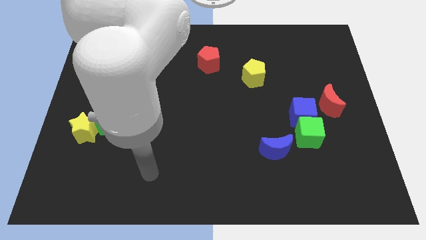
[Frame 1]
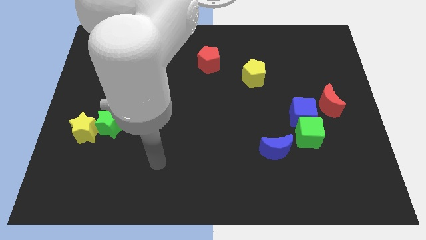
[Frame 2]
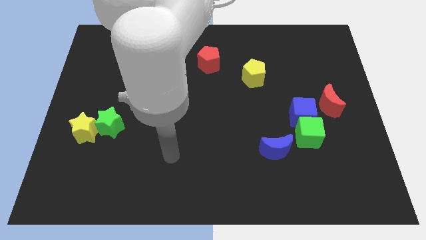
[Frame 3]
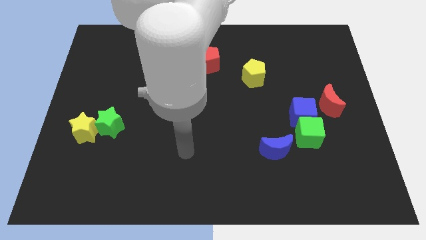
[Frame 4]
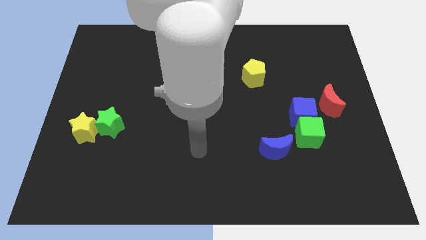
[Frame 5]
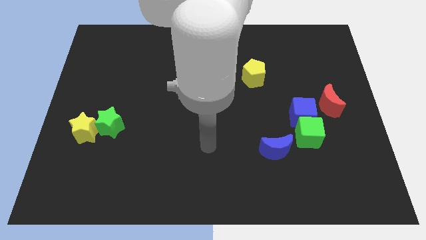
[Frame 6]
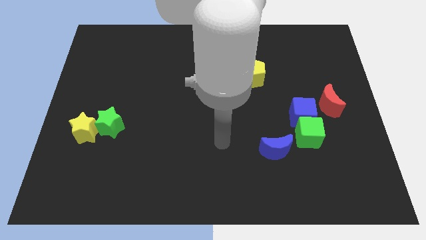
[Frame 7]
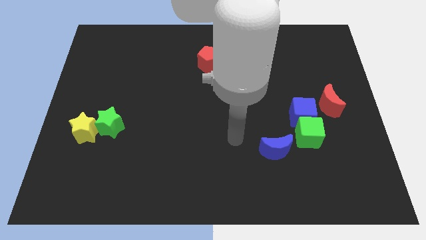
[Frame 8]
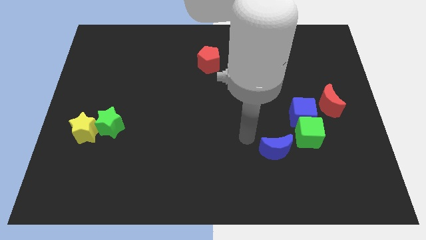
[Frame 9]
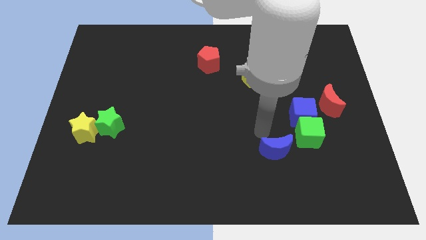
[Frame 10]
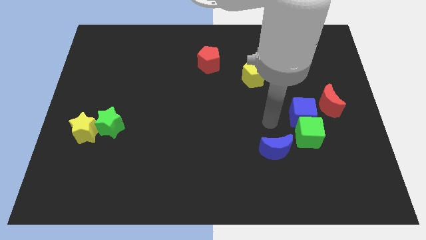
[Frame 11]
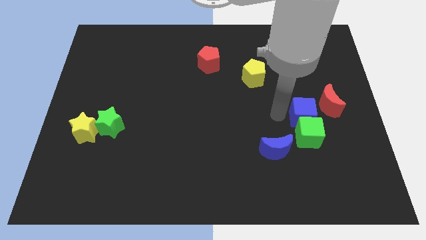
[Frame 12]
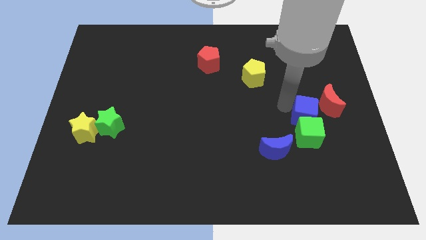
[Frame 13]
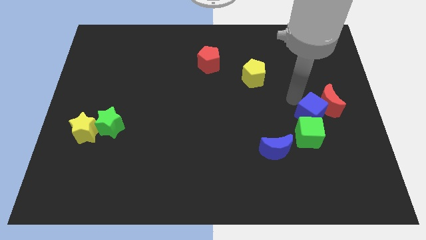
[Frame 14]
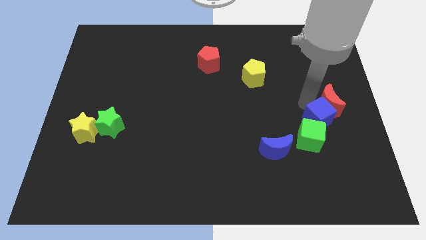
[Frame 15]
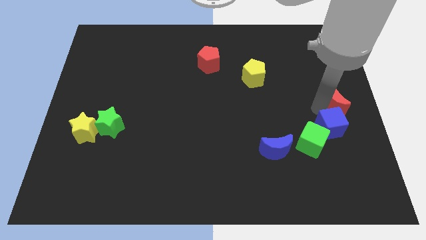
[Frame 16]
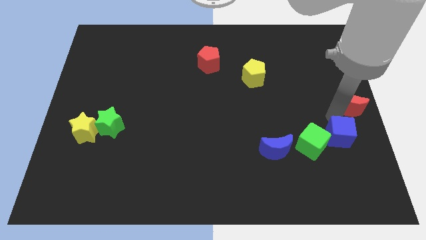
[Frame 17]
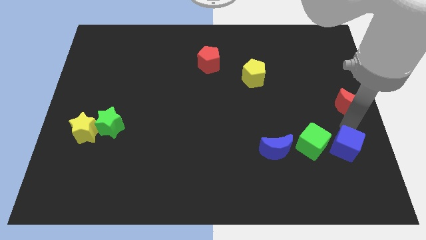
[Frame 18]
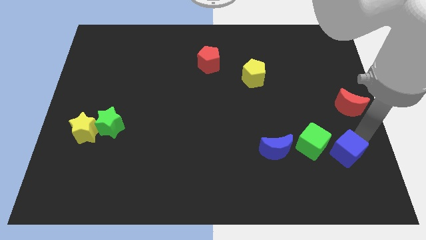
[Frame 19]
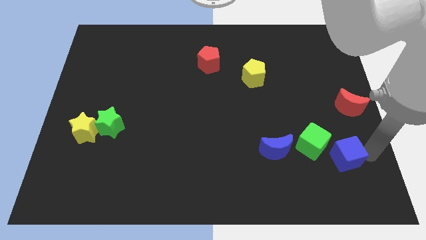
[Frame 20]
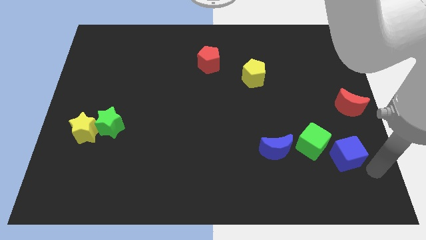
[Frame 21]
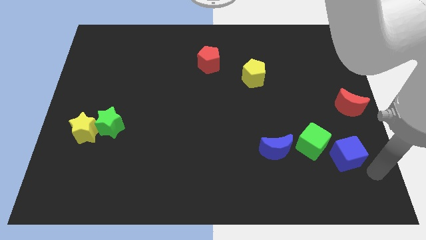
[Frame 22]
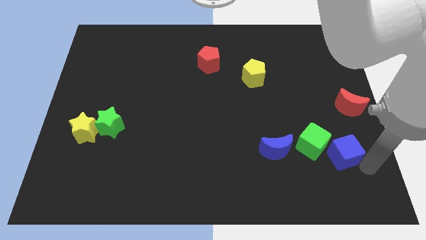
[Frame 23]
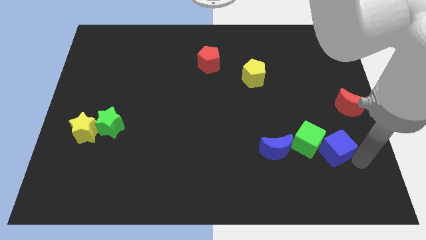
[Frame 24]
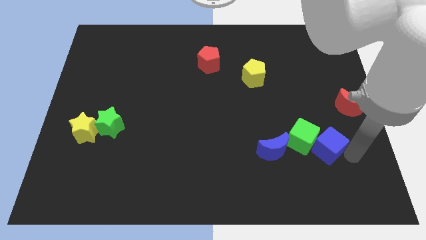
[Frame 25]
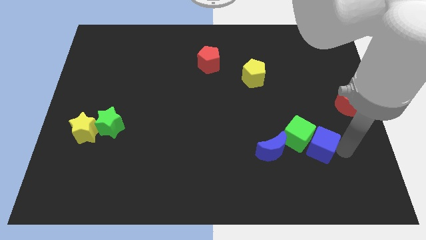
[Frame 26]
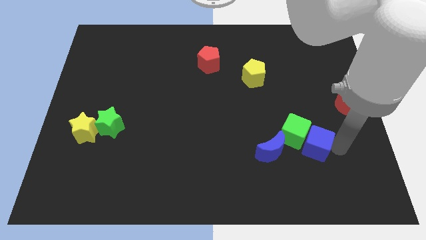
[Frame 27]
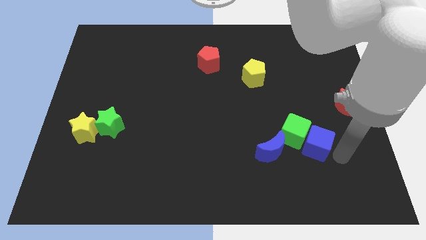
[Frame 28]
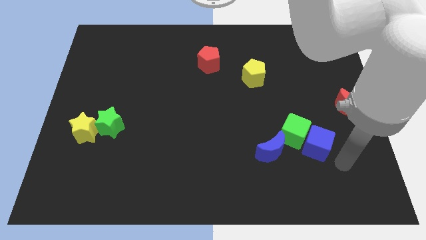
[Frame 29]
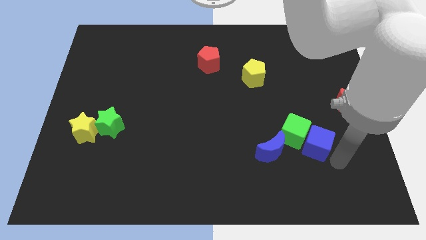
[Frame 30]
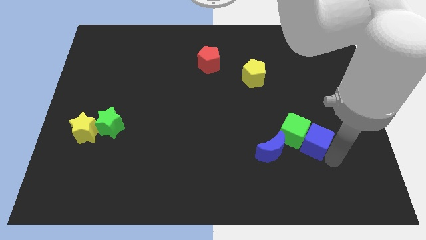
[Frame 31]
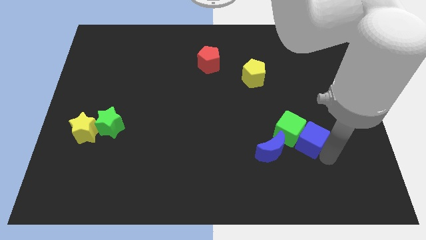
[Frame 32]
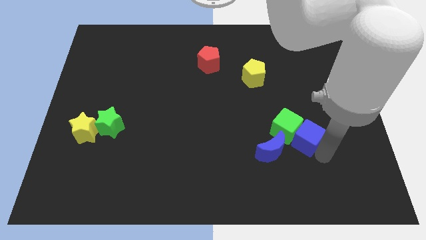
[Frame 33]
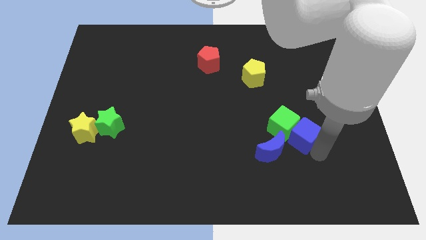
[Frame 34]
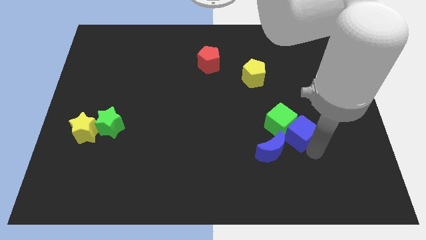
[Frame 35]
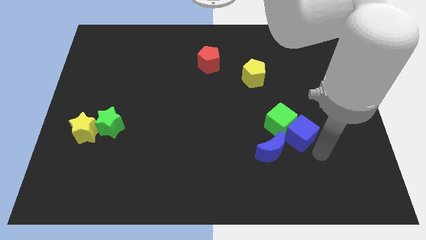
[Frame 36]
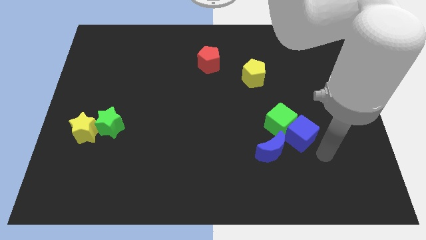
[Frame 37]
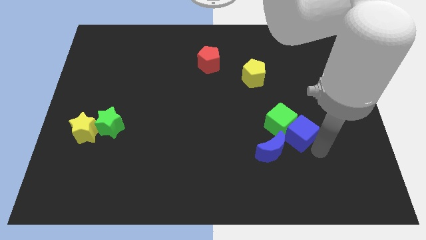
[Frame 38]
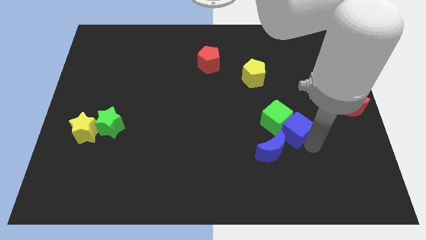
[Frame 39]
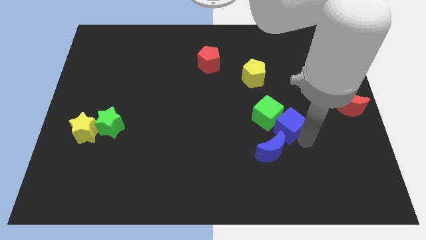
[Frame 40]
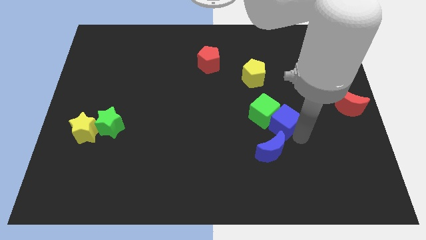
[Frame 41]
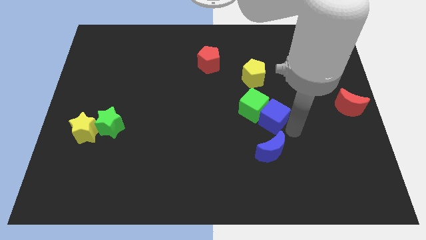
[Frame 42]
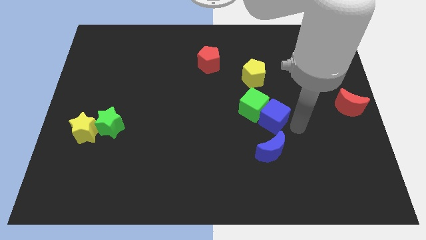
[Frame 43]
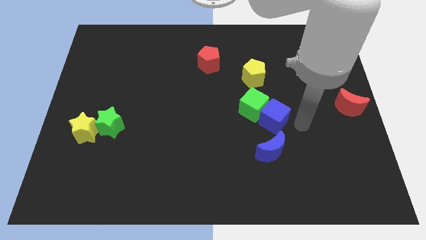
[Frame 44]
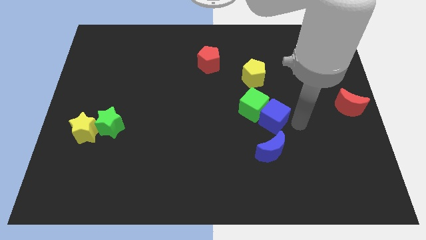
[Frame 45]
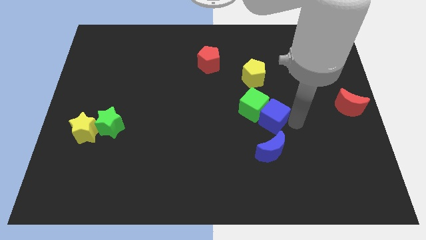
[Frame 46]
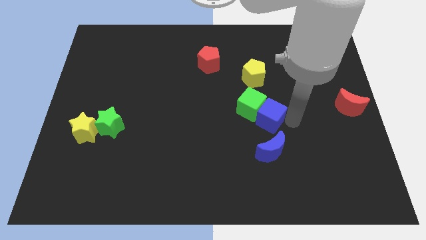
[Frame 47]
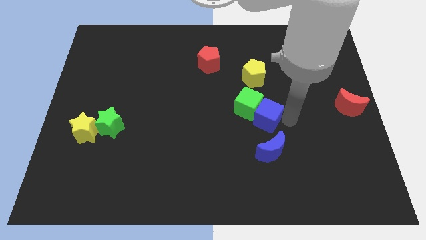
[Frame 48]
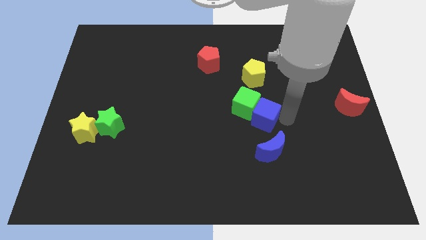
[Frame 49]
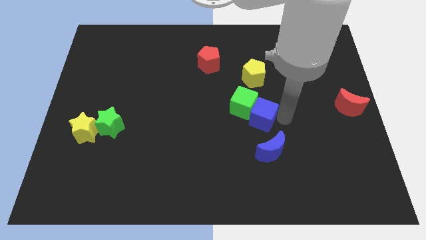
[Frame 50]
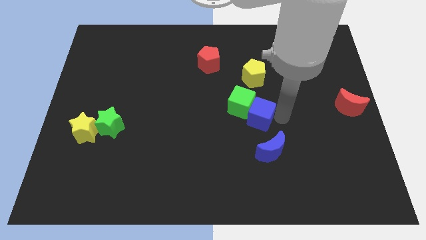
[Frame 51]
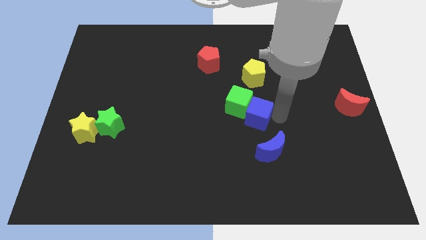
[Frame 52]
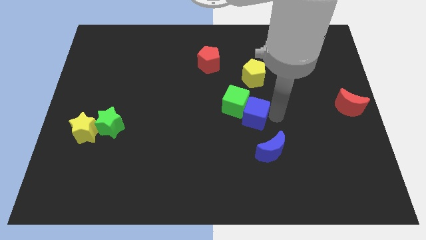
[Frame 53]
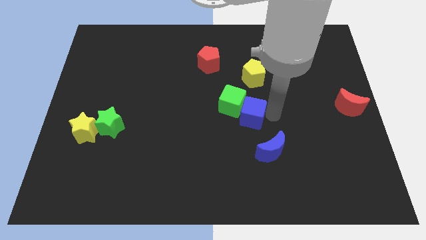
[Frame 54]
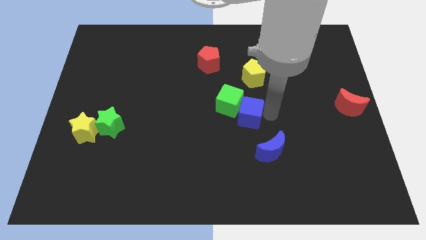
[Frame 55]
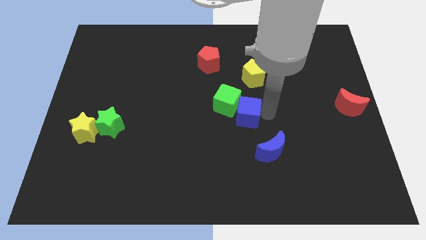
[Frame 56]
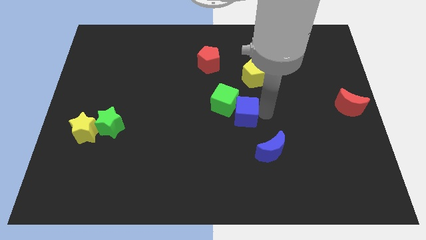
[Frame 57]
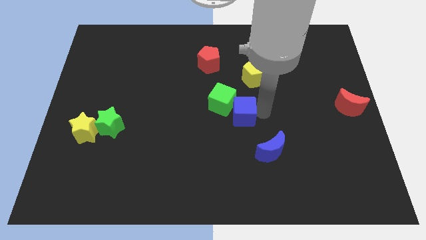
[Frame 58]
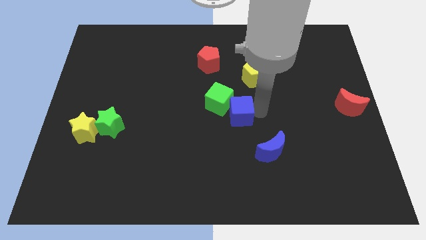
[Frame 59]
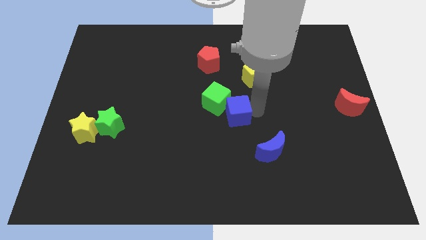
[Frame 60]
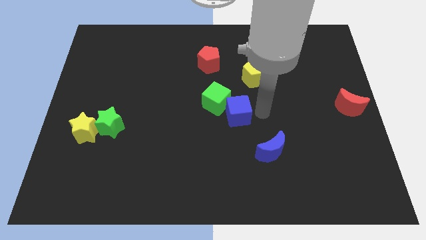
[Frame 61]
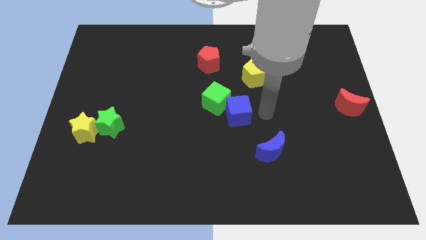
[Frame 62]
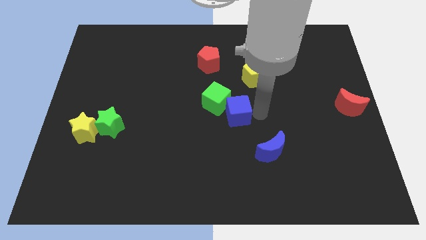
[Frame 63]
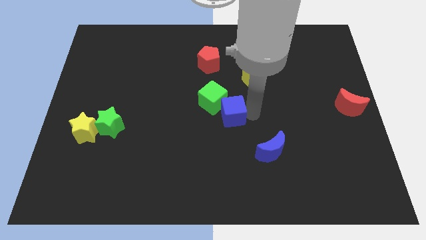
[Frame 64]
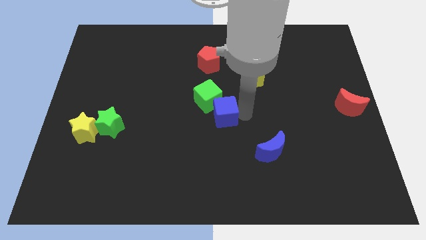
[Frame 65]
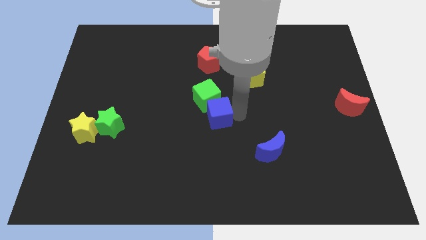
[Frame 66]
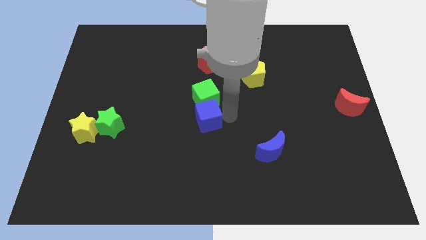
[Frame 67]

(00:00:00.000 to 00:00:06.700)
slide the blue cube to the left

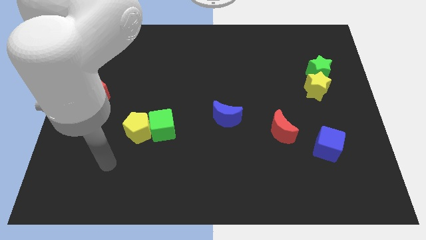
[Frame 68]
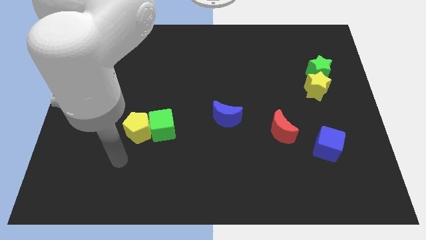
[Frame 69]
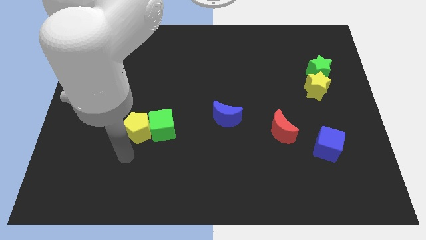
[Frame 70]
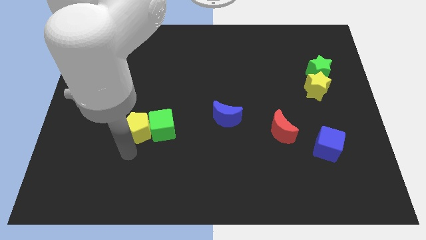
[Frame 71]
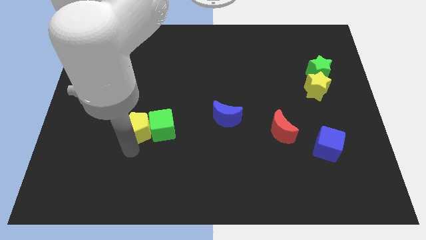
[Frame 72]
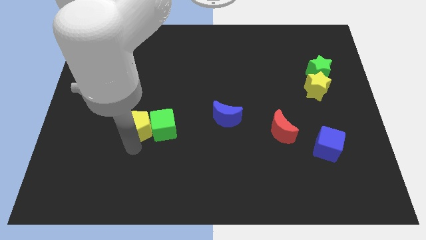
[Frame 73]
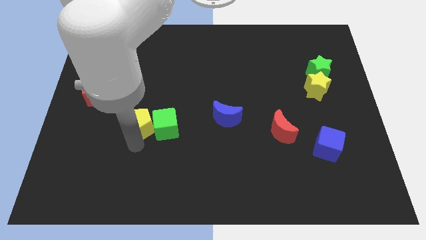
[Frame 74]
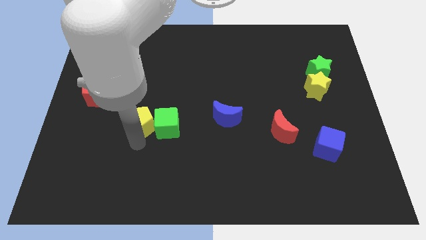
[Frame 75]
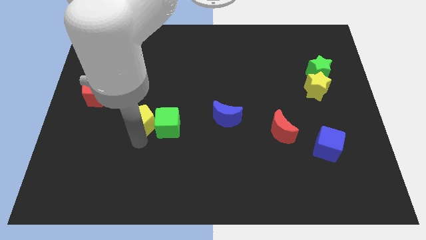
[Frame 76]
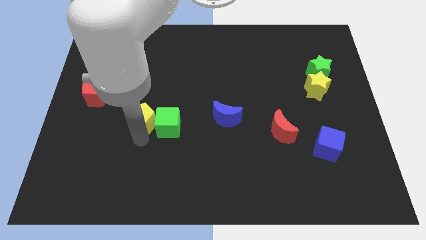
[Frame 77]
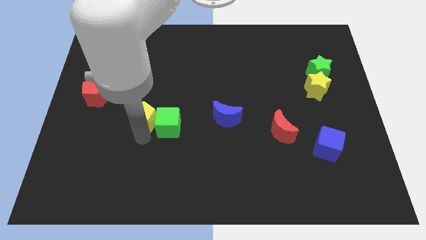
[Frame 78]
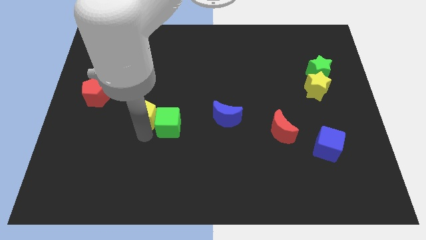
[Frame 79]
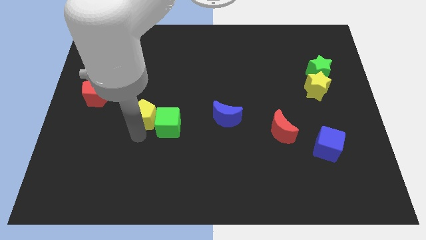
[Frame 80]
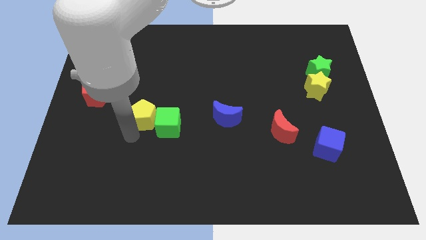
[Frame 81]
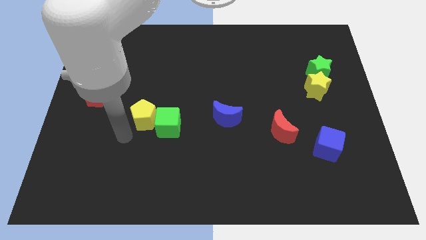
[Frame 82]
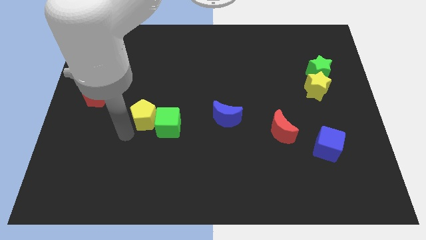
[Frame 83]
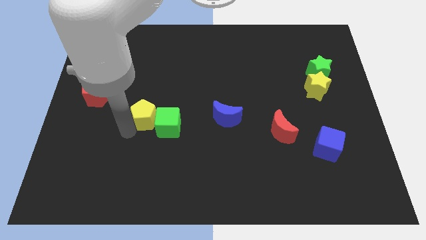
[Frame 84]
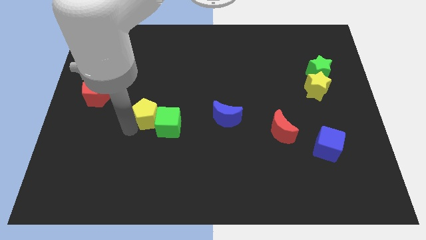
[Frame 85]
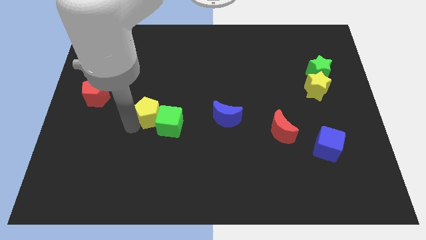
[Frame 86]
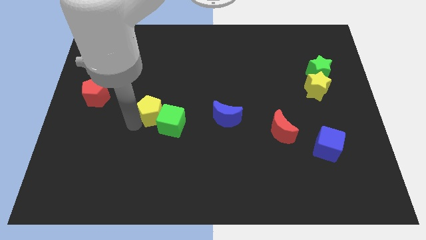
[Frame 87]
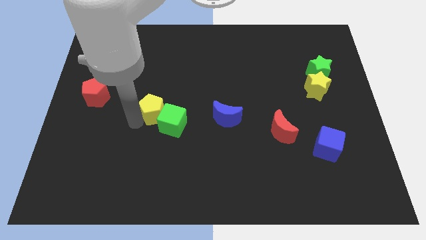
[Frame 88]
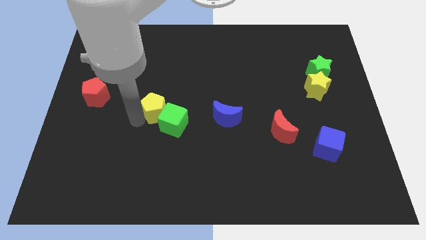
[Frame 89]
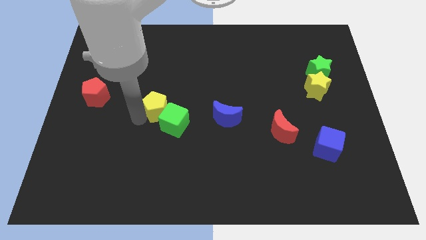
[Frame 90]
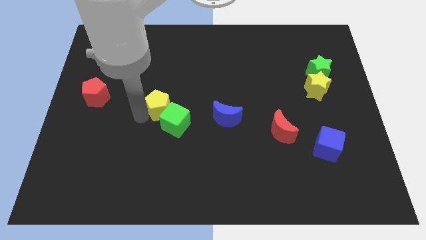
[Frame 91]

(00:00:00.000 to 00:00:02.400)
slide the yellow pentagon a bit up and right
